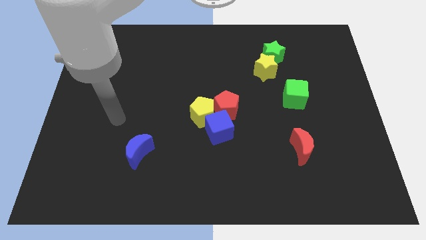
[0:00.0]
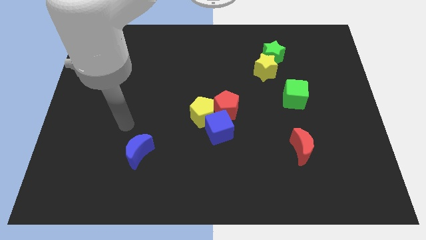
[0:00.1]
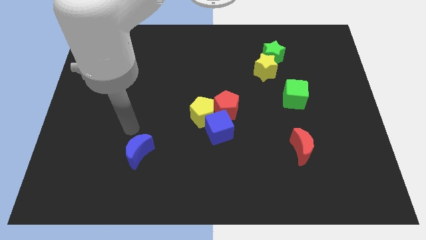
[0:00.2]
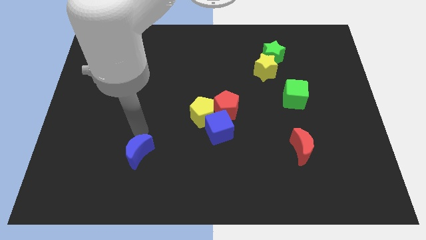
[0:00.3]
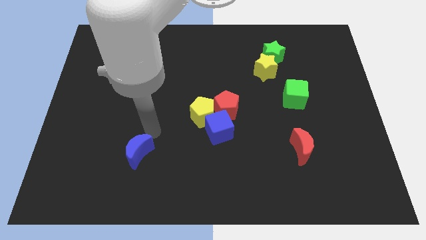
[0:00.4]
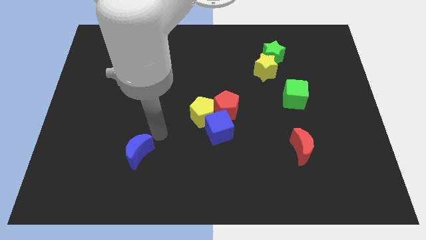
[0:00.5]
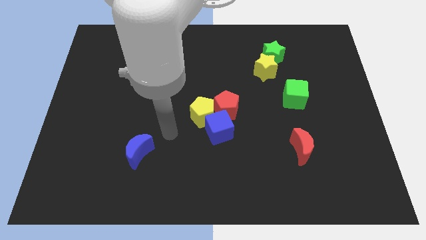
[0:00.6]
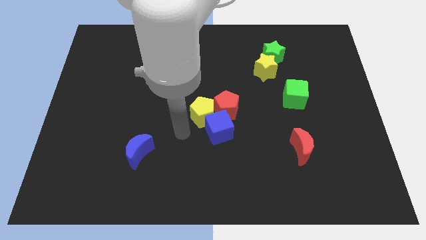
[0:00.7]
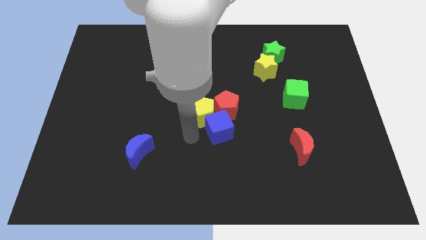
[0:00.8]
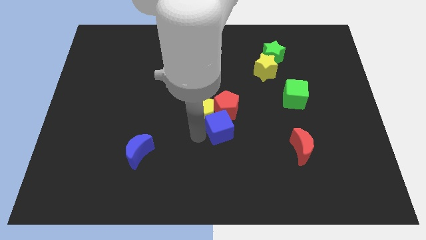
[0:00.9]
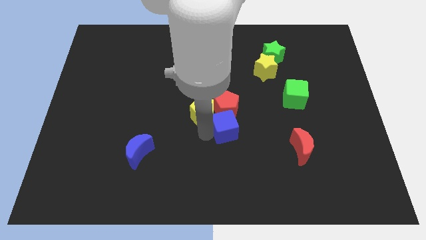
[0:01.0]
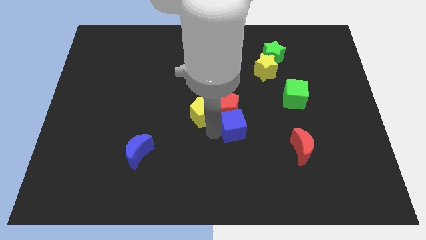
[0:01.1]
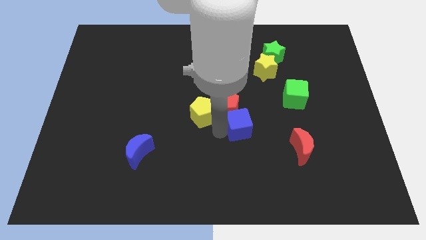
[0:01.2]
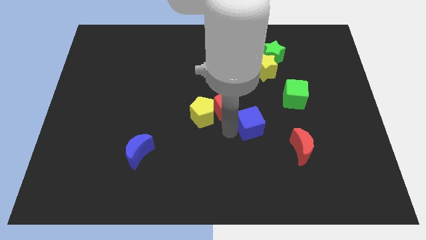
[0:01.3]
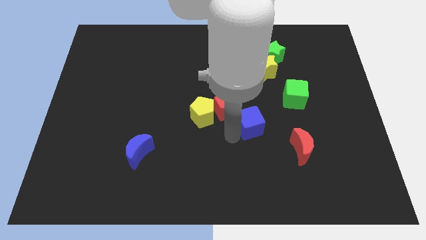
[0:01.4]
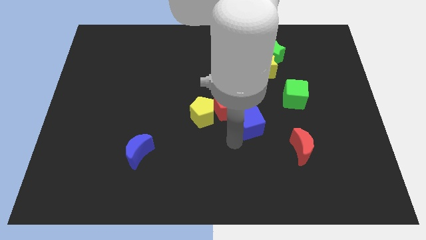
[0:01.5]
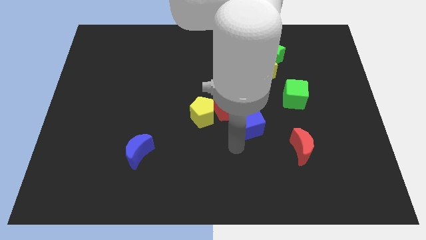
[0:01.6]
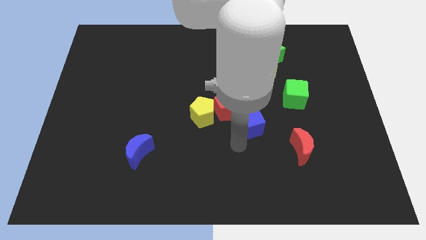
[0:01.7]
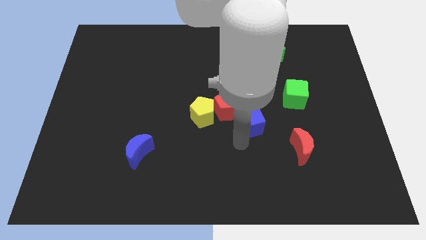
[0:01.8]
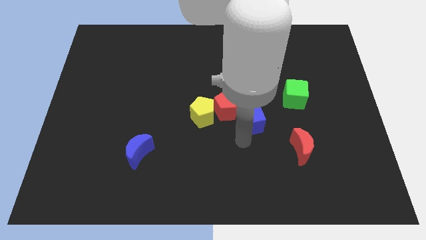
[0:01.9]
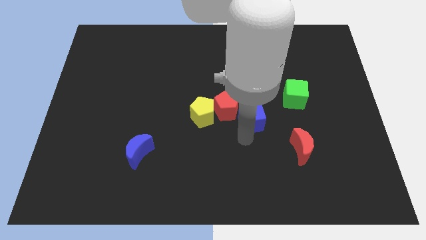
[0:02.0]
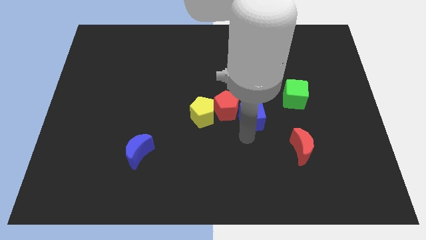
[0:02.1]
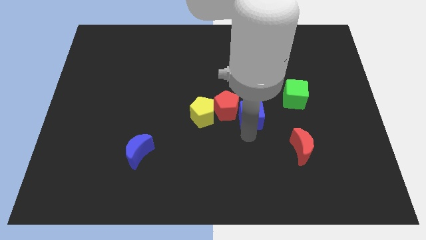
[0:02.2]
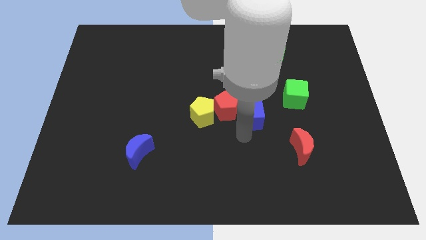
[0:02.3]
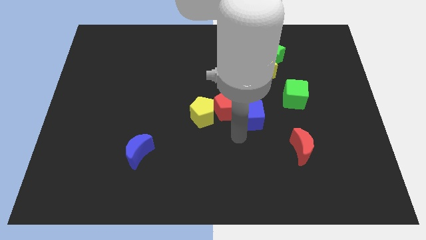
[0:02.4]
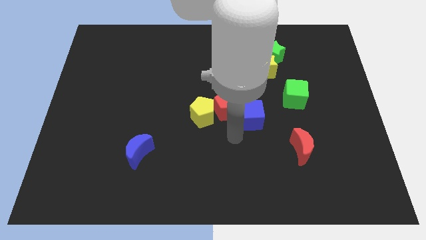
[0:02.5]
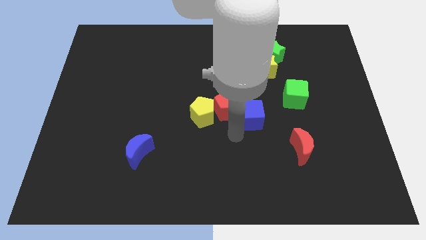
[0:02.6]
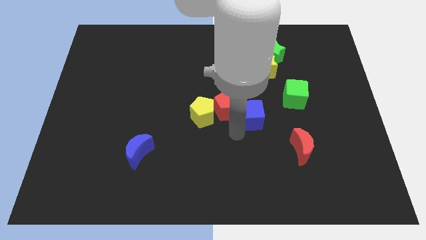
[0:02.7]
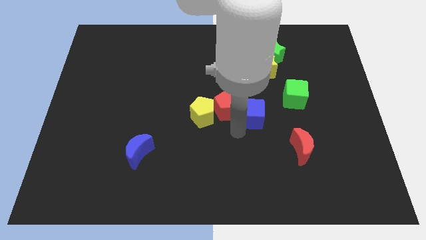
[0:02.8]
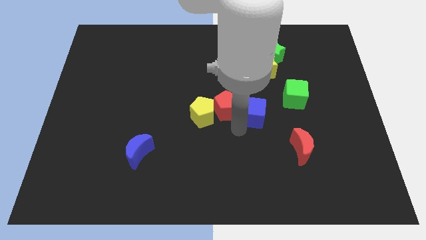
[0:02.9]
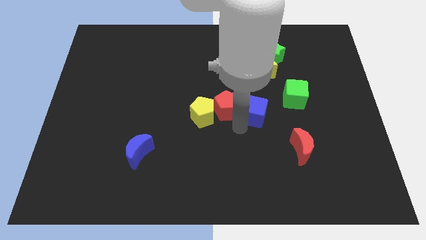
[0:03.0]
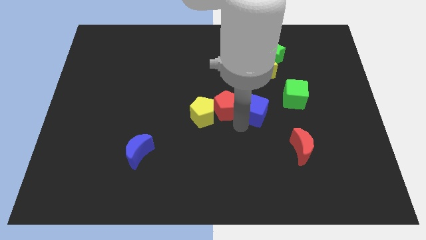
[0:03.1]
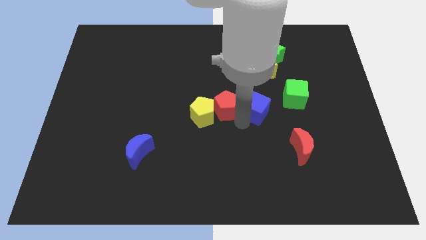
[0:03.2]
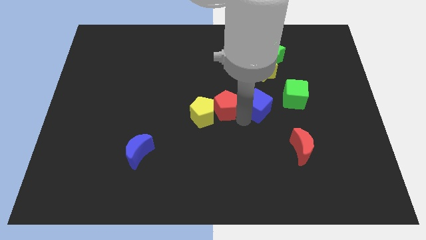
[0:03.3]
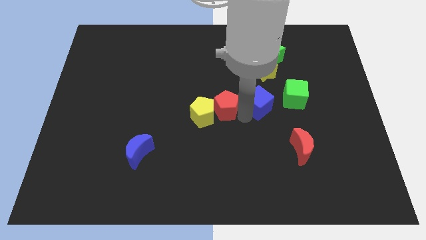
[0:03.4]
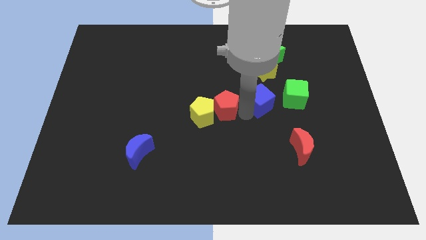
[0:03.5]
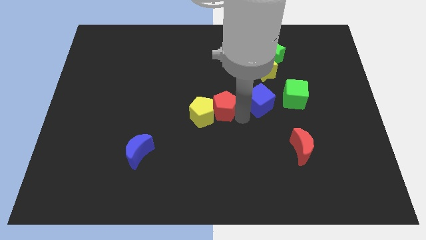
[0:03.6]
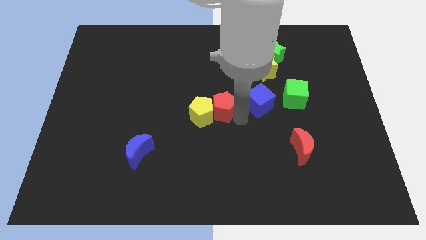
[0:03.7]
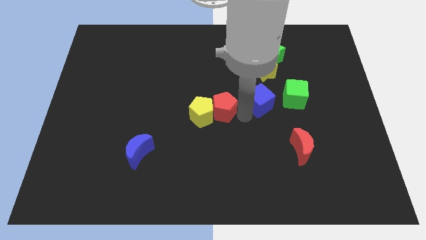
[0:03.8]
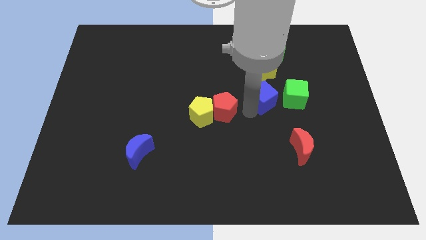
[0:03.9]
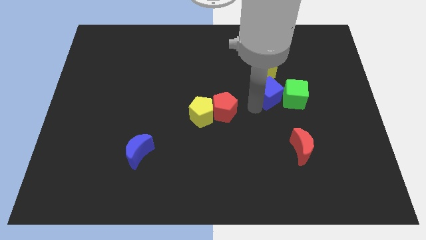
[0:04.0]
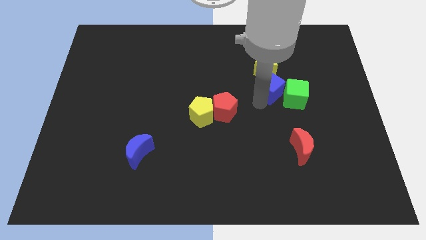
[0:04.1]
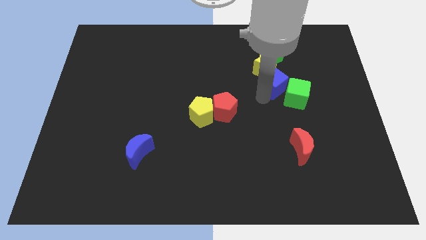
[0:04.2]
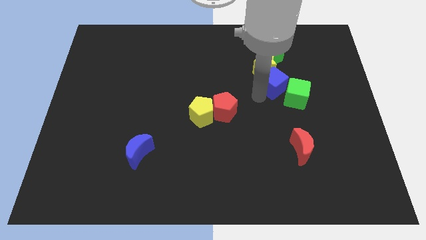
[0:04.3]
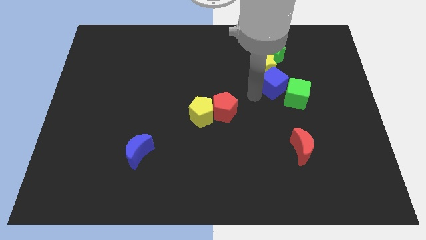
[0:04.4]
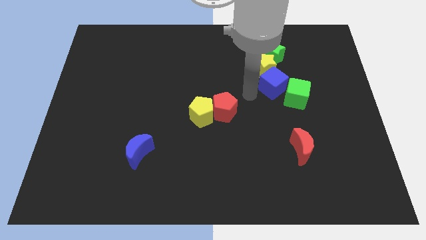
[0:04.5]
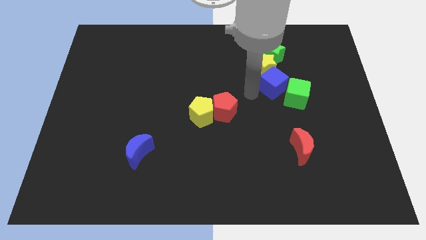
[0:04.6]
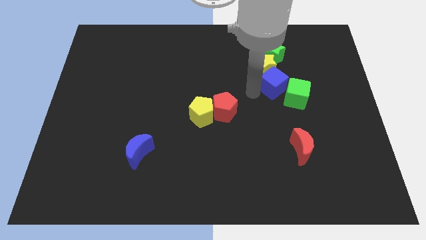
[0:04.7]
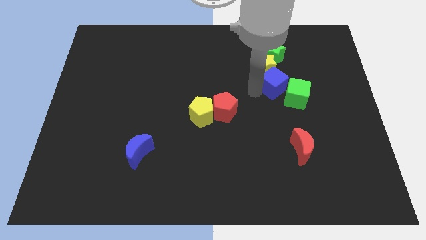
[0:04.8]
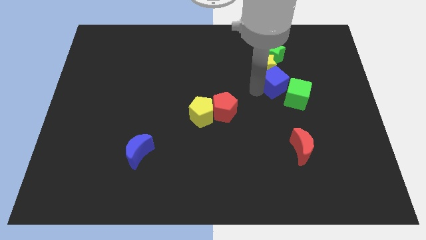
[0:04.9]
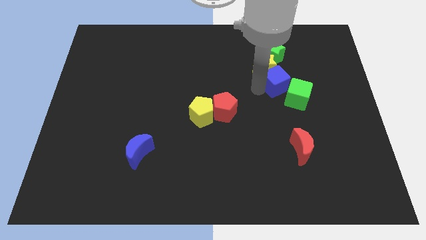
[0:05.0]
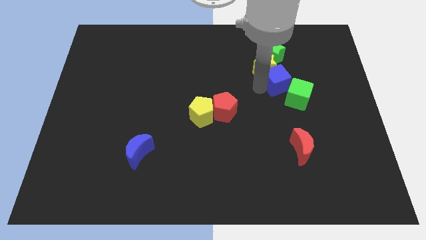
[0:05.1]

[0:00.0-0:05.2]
push the blue cube upwards and then to the right

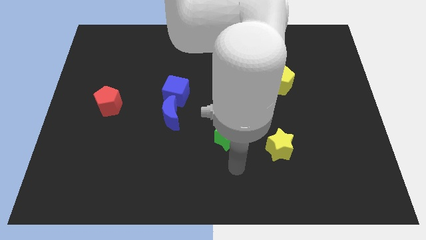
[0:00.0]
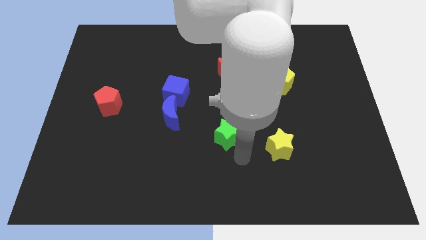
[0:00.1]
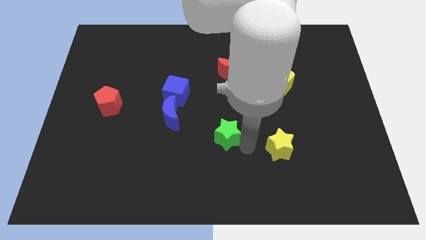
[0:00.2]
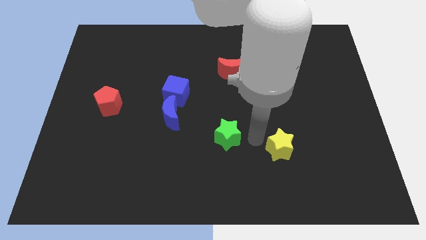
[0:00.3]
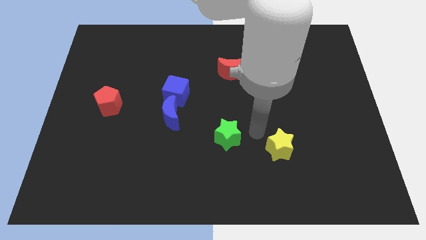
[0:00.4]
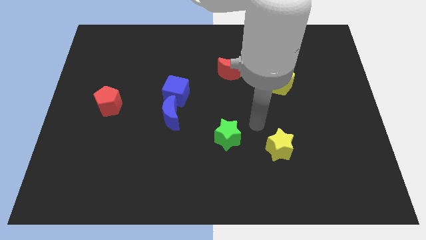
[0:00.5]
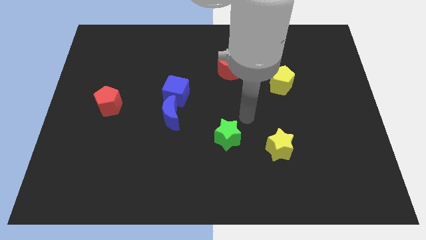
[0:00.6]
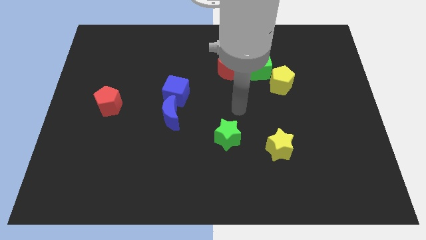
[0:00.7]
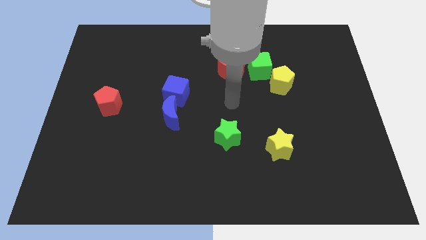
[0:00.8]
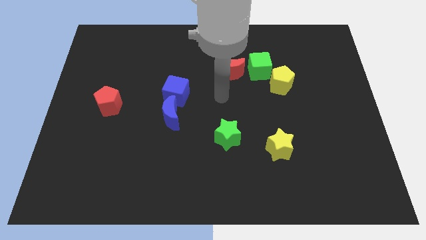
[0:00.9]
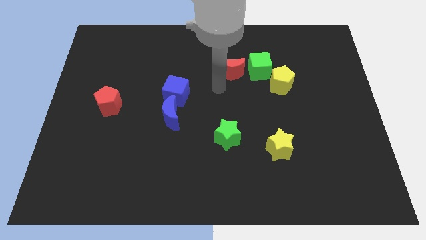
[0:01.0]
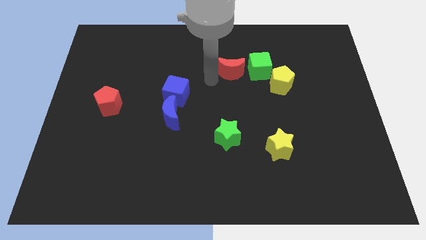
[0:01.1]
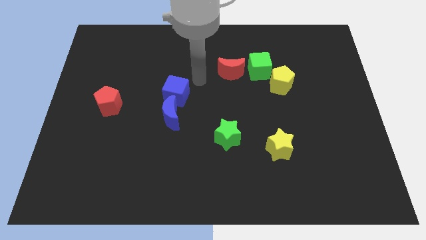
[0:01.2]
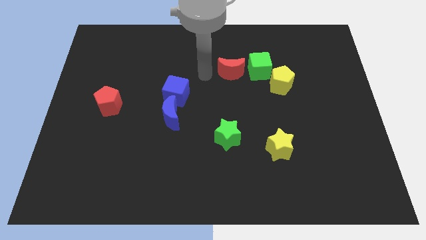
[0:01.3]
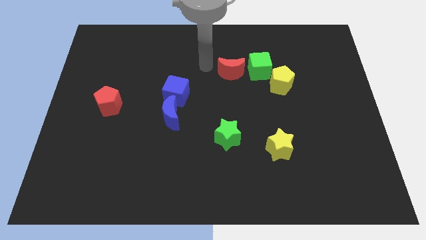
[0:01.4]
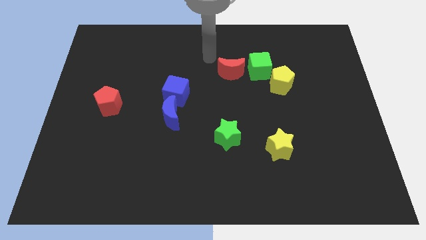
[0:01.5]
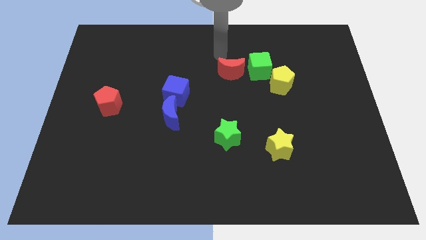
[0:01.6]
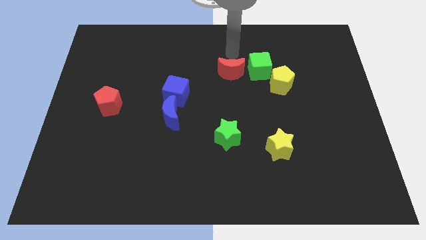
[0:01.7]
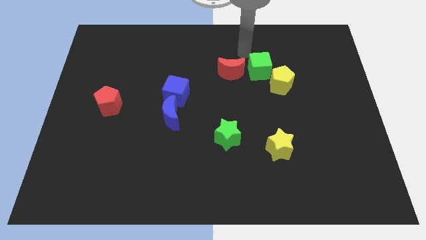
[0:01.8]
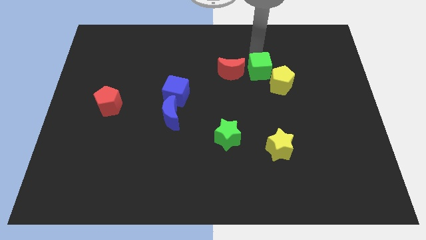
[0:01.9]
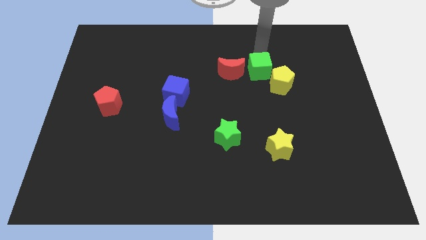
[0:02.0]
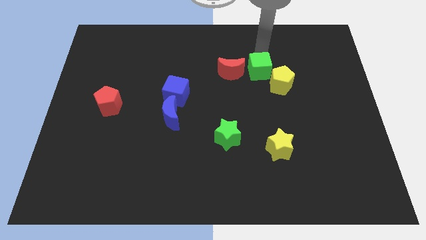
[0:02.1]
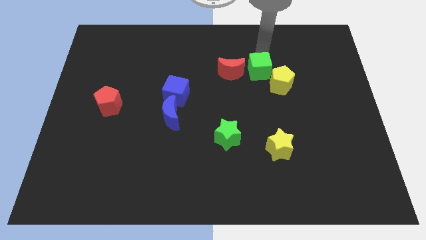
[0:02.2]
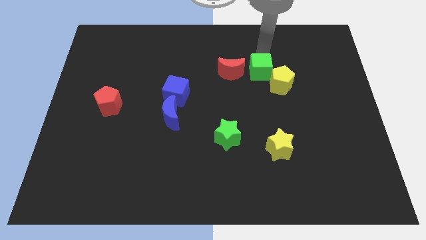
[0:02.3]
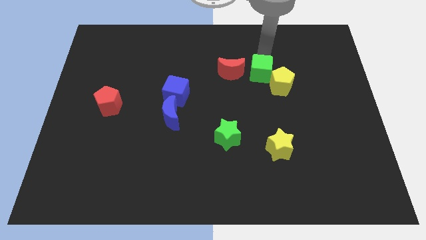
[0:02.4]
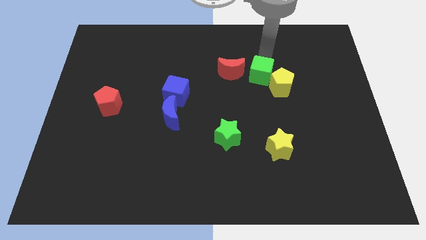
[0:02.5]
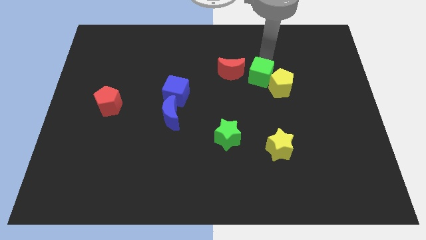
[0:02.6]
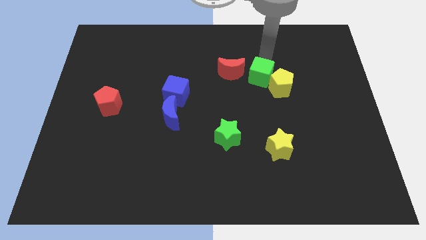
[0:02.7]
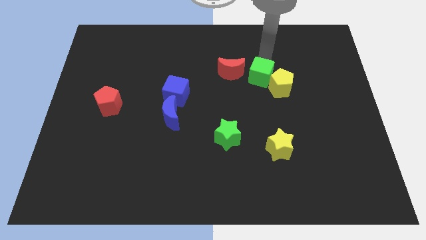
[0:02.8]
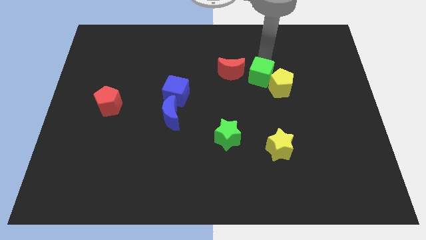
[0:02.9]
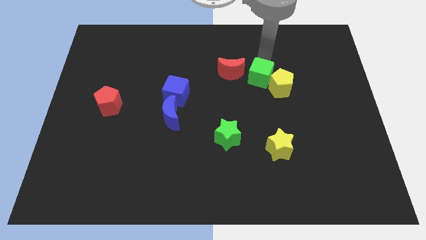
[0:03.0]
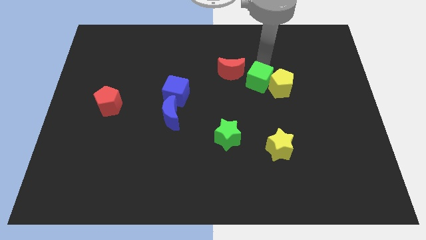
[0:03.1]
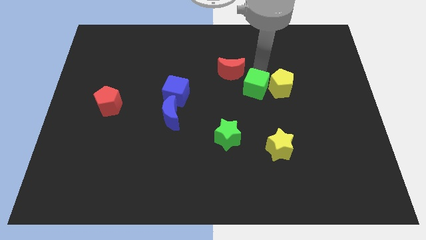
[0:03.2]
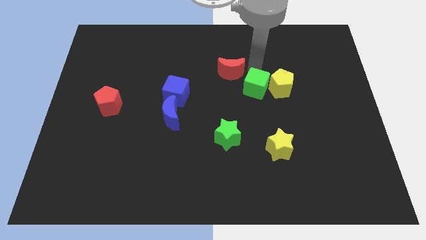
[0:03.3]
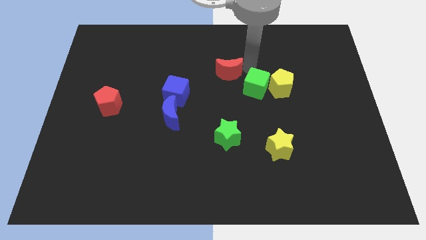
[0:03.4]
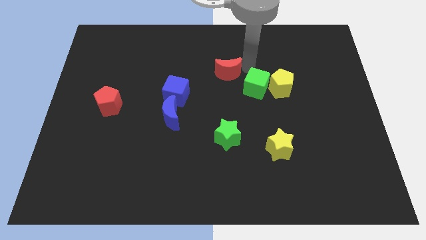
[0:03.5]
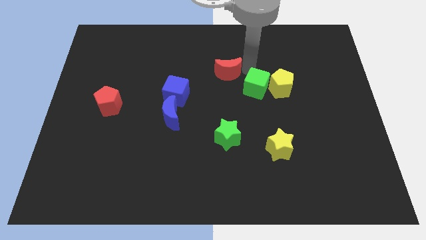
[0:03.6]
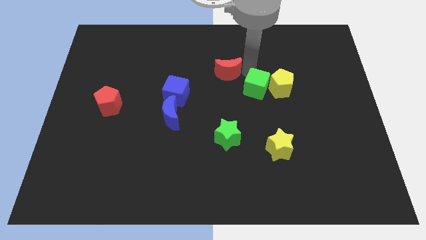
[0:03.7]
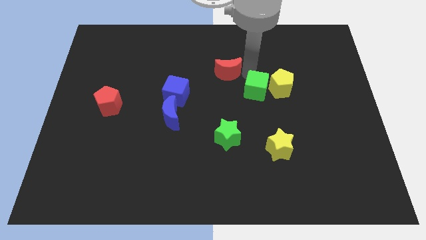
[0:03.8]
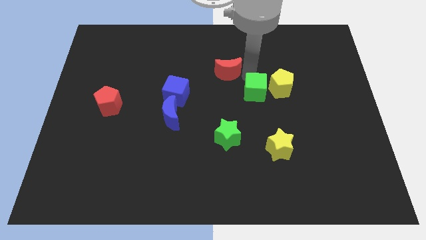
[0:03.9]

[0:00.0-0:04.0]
slightly move the green cube down
